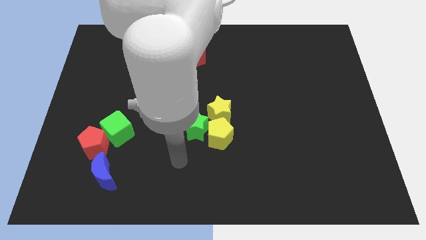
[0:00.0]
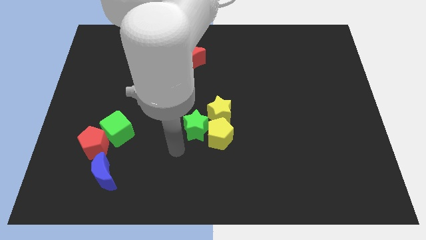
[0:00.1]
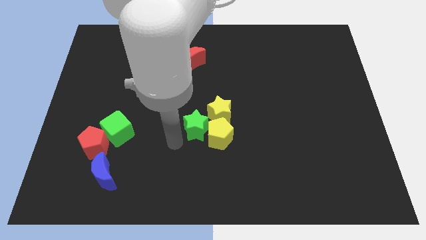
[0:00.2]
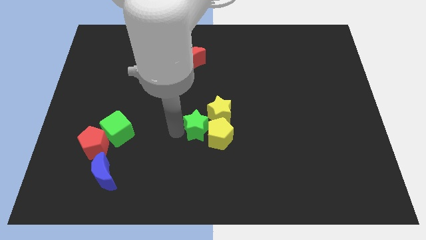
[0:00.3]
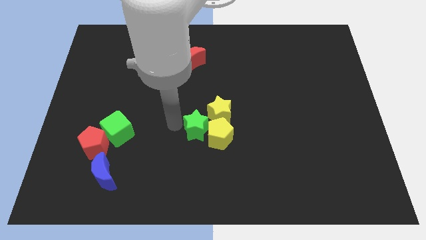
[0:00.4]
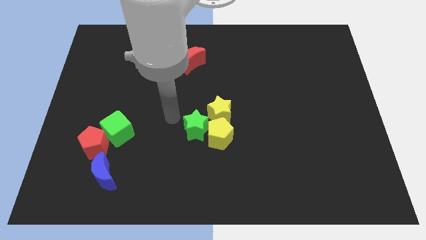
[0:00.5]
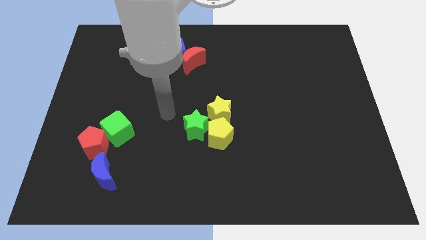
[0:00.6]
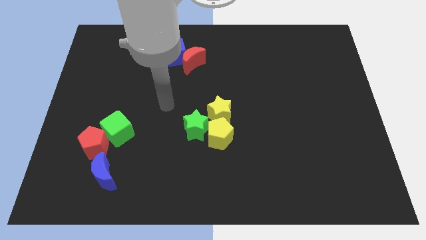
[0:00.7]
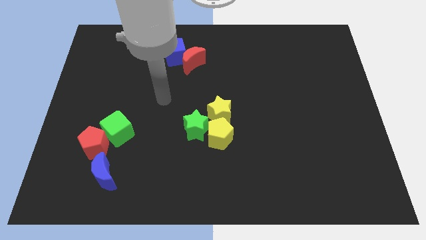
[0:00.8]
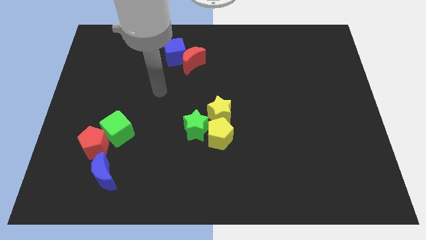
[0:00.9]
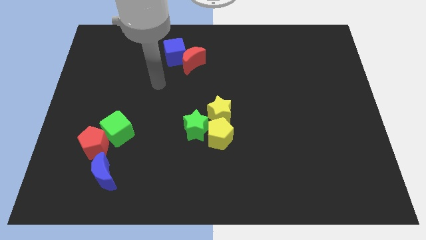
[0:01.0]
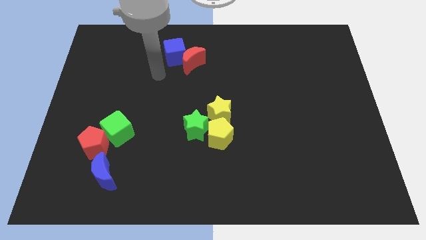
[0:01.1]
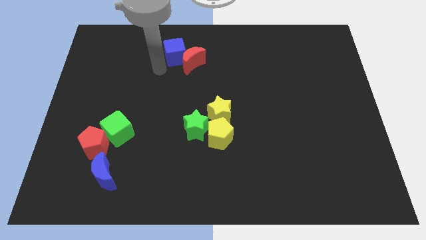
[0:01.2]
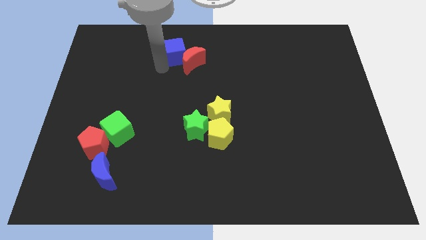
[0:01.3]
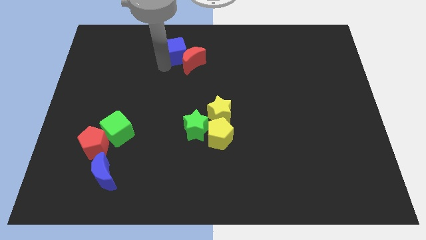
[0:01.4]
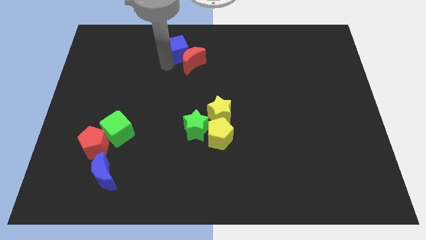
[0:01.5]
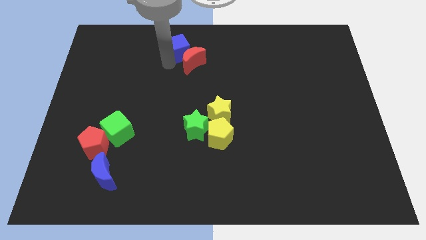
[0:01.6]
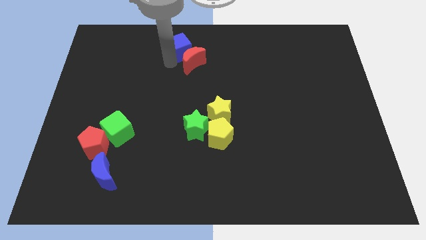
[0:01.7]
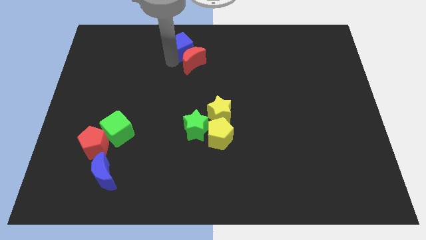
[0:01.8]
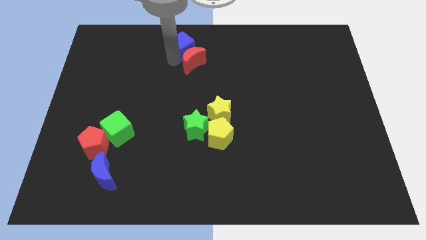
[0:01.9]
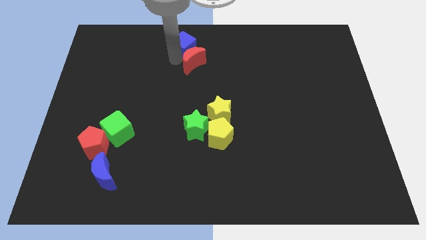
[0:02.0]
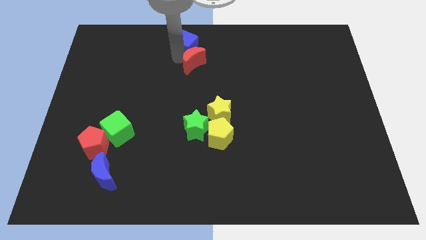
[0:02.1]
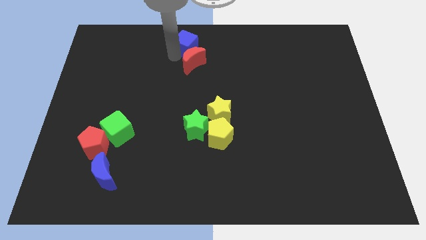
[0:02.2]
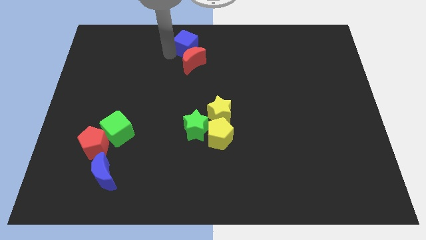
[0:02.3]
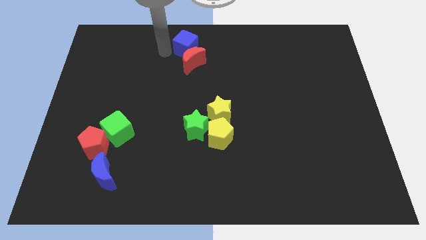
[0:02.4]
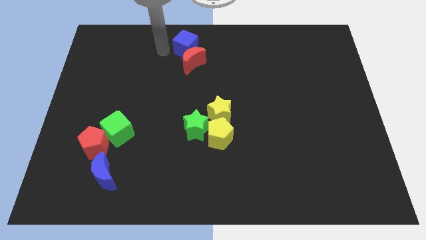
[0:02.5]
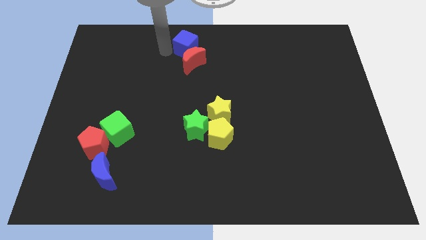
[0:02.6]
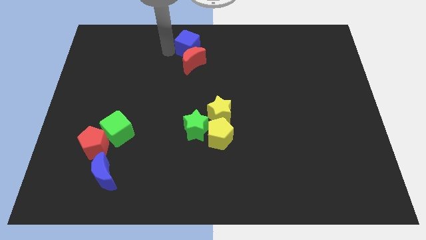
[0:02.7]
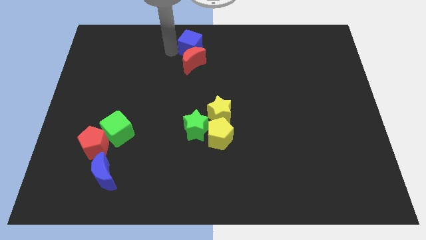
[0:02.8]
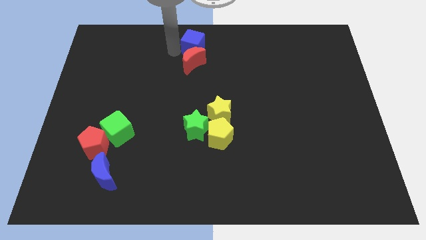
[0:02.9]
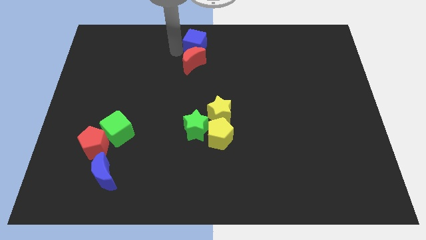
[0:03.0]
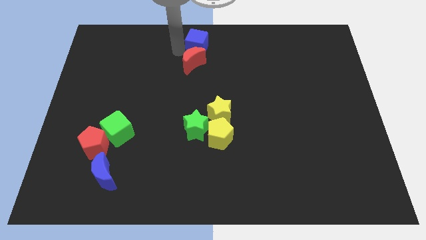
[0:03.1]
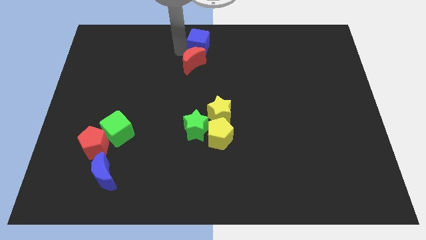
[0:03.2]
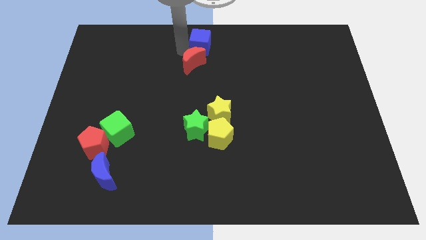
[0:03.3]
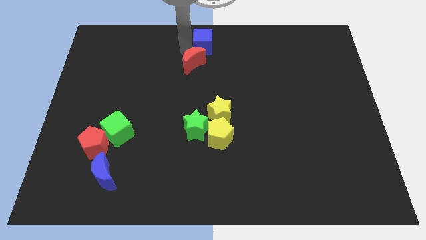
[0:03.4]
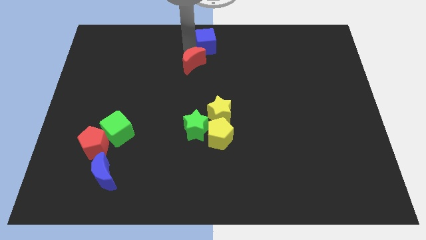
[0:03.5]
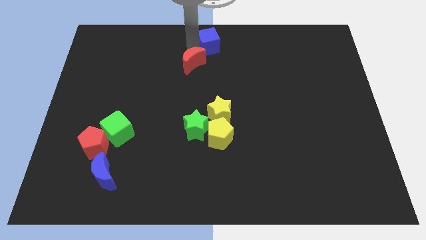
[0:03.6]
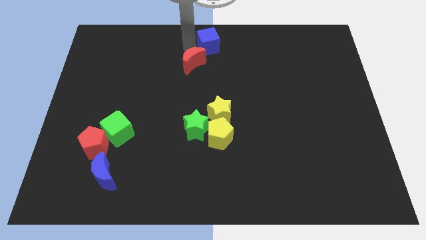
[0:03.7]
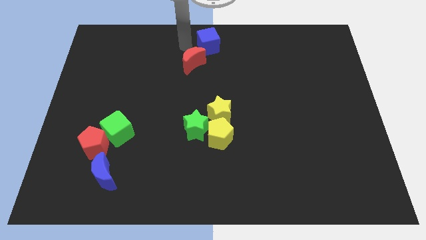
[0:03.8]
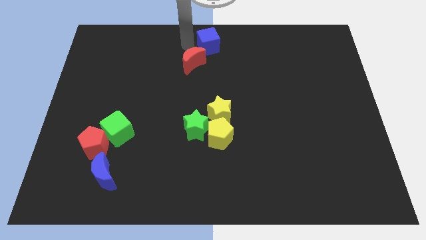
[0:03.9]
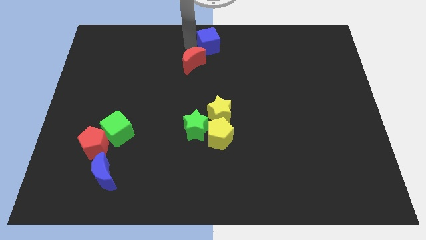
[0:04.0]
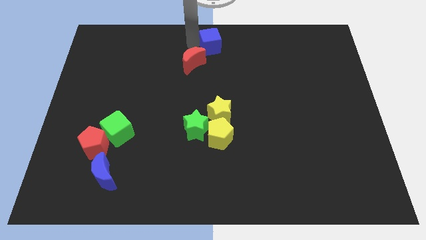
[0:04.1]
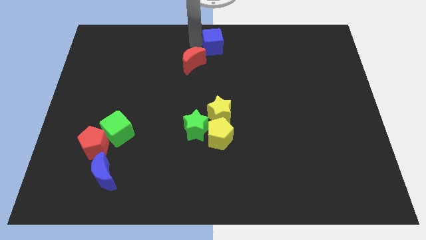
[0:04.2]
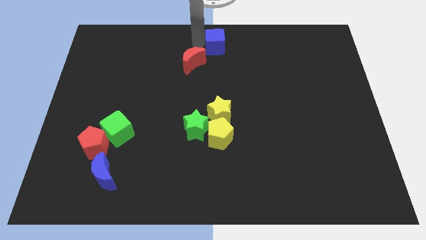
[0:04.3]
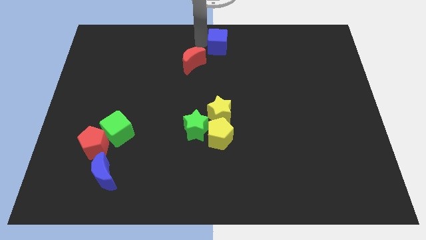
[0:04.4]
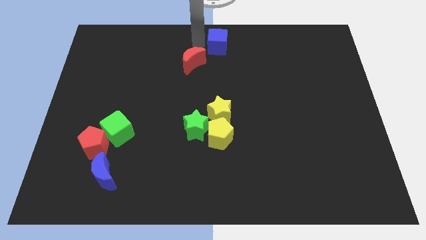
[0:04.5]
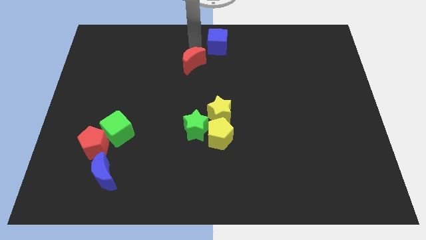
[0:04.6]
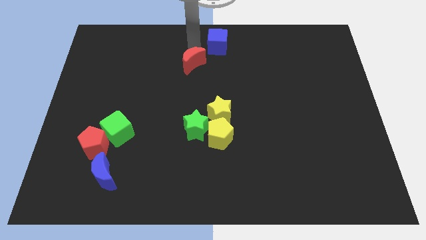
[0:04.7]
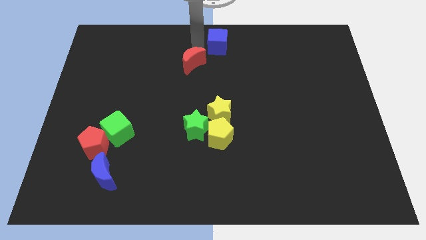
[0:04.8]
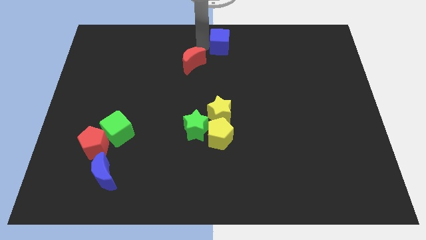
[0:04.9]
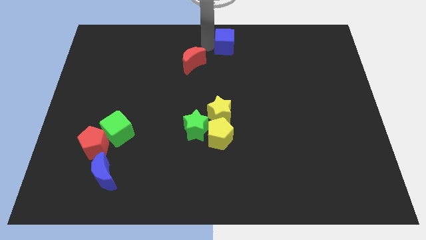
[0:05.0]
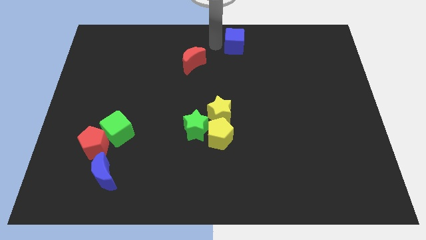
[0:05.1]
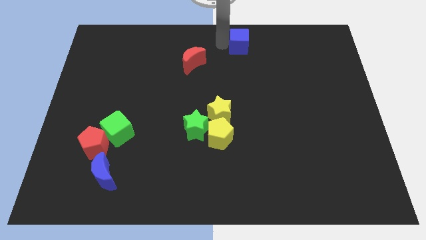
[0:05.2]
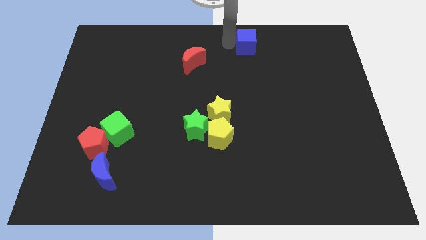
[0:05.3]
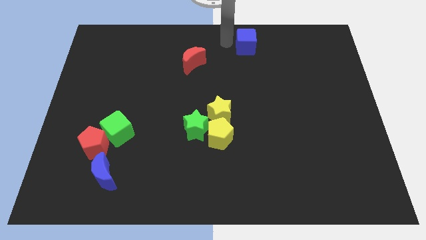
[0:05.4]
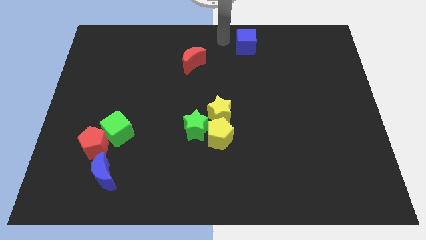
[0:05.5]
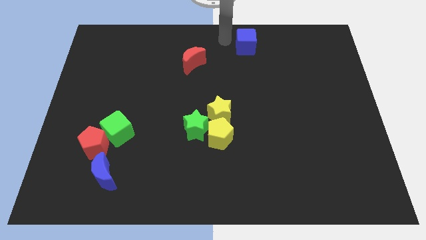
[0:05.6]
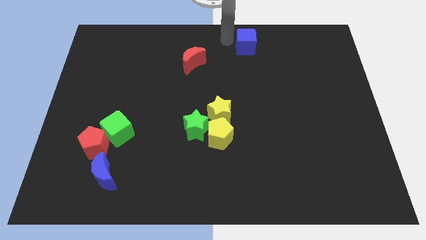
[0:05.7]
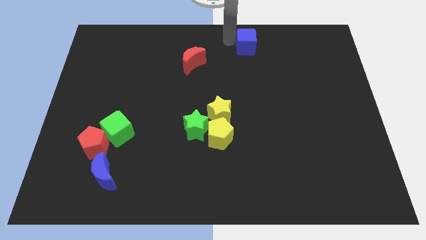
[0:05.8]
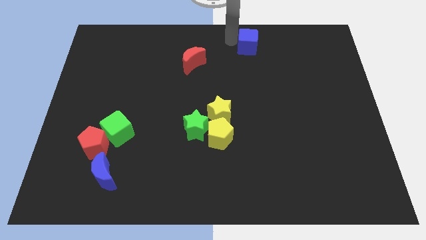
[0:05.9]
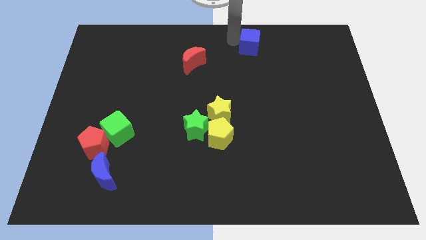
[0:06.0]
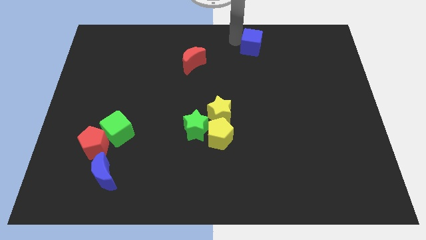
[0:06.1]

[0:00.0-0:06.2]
push the blue cube to the right

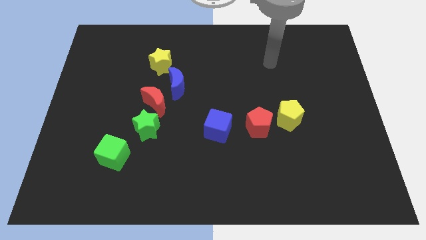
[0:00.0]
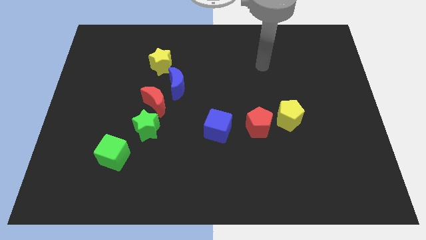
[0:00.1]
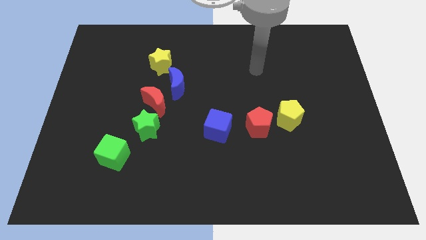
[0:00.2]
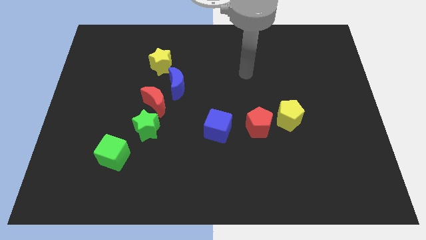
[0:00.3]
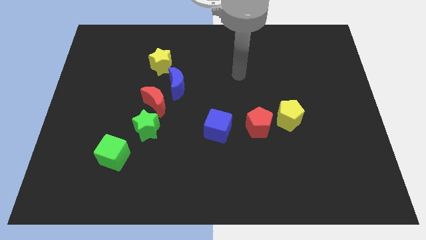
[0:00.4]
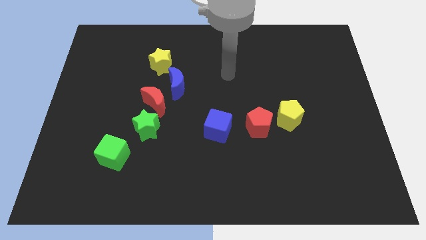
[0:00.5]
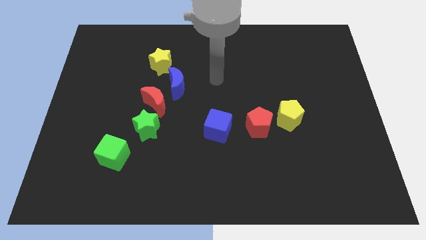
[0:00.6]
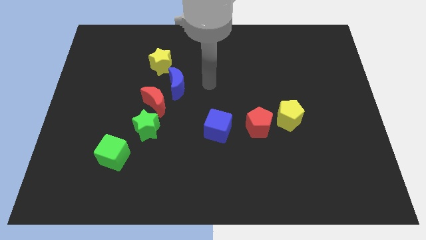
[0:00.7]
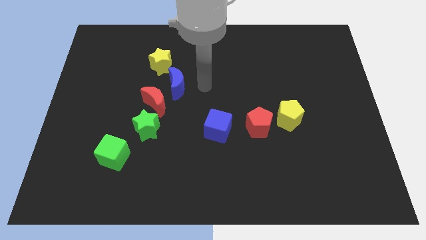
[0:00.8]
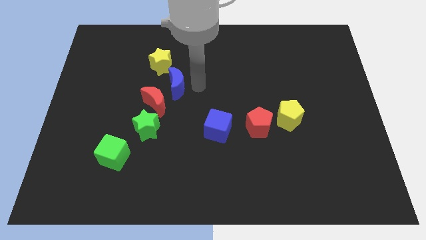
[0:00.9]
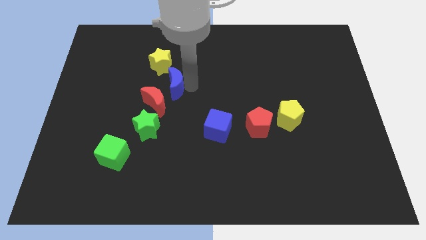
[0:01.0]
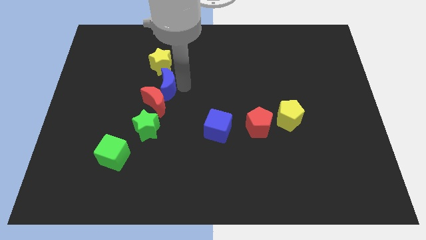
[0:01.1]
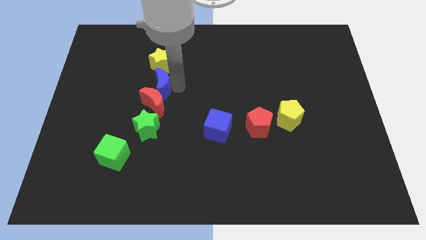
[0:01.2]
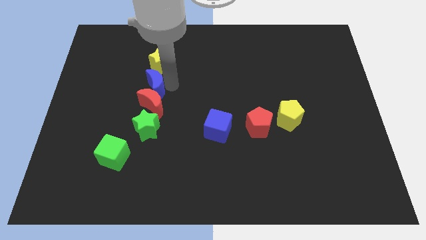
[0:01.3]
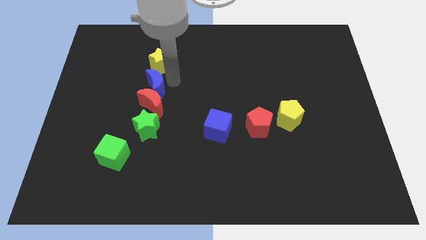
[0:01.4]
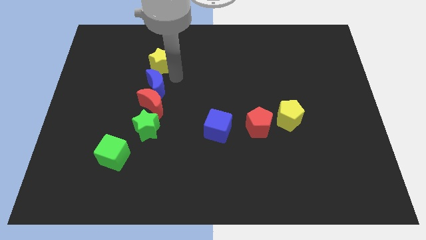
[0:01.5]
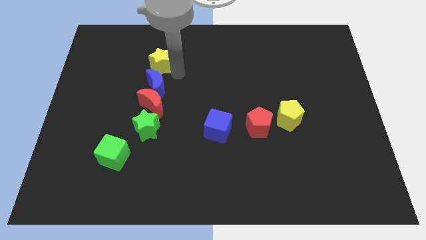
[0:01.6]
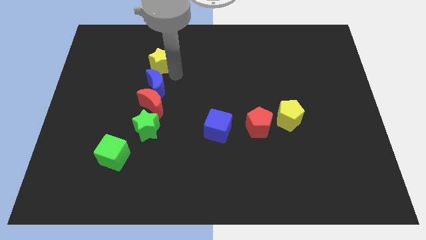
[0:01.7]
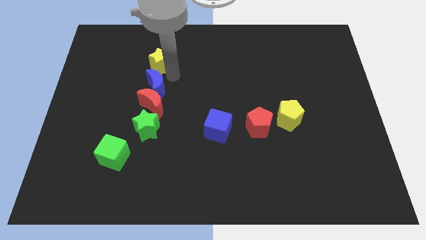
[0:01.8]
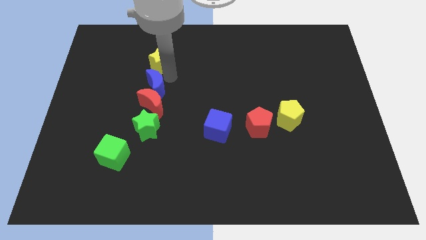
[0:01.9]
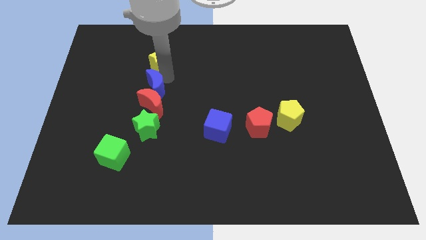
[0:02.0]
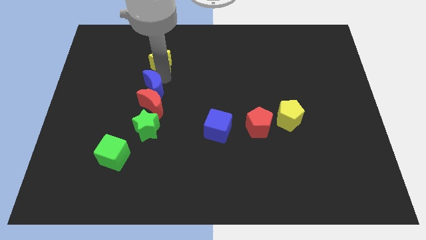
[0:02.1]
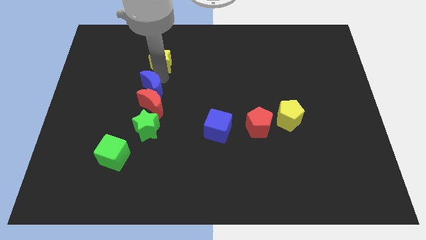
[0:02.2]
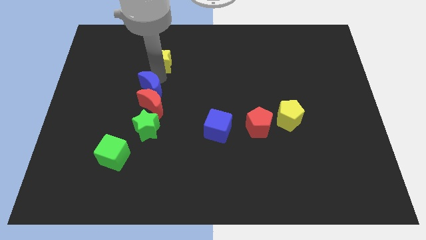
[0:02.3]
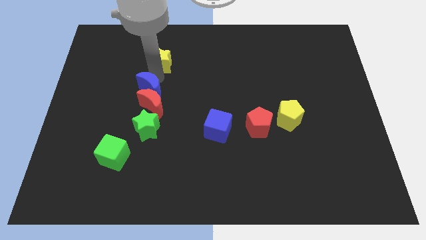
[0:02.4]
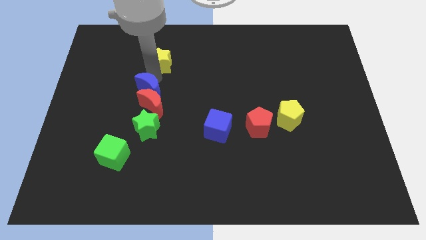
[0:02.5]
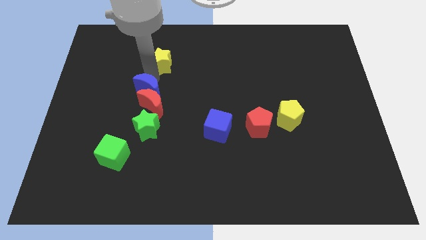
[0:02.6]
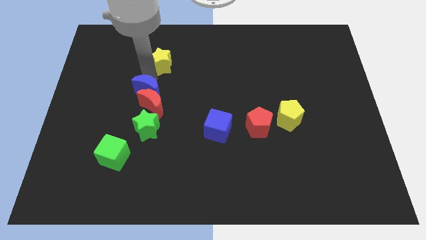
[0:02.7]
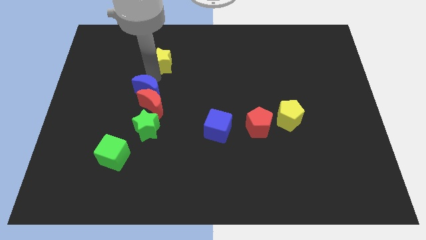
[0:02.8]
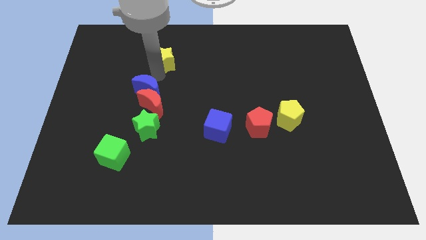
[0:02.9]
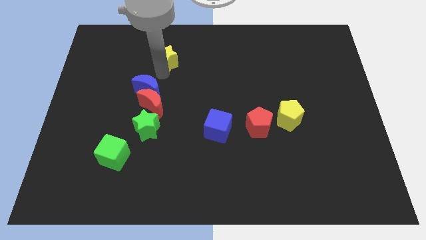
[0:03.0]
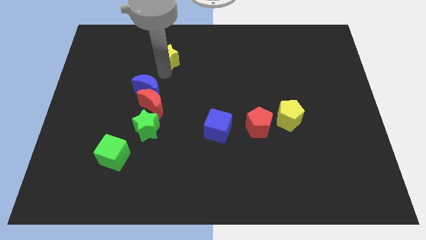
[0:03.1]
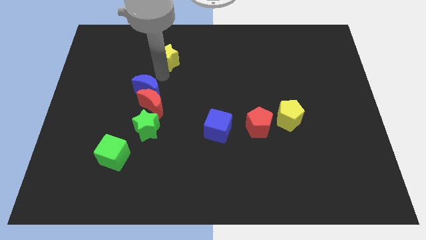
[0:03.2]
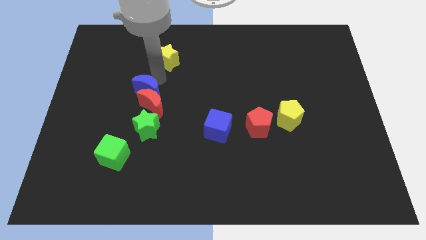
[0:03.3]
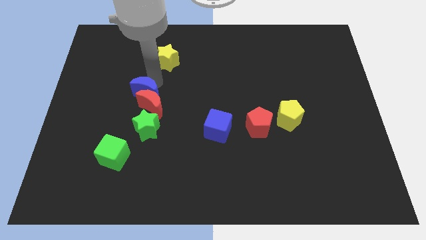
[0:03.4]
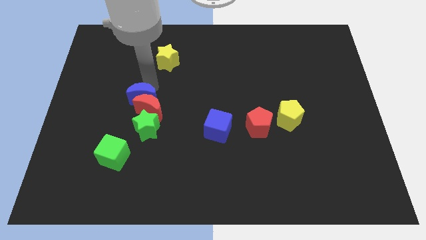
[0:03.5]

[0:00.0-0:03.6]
slide the blue moon a little bit diagonally down and left
